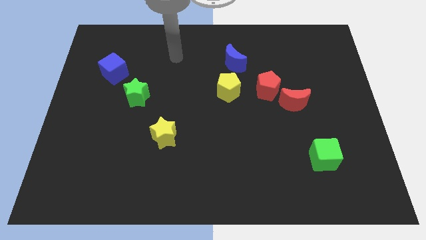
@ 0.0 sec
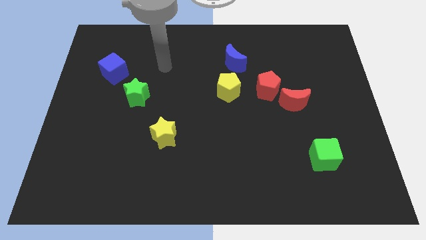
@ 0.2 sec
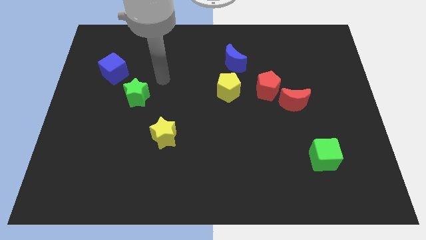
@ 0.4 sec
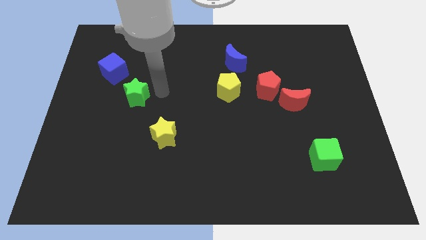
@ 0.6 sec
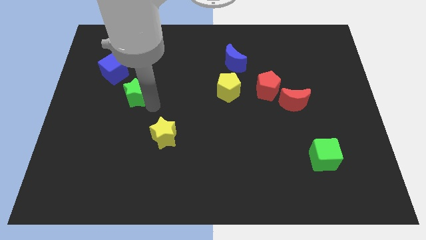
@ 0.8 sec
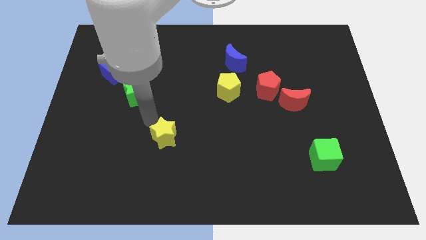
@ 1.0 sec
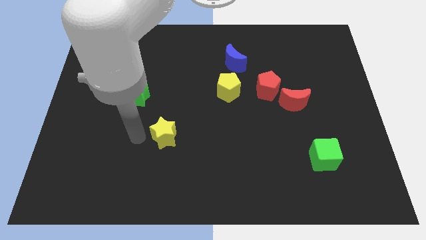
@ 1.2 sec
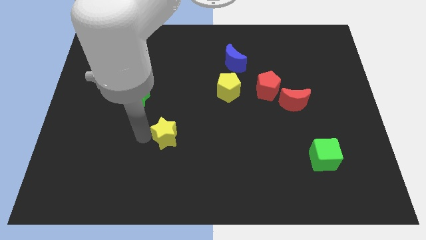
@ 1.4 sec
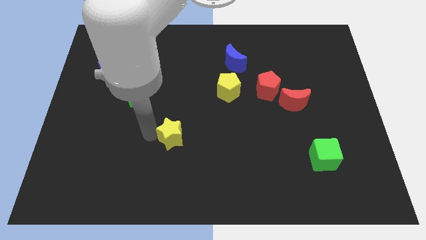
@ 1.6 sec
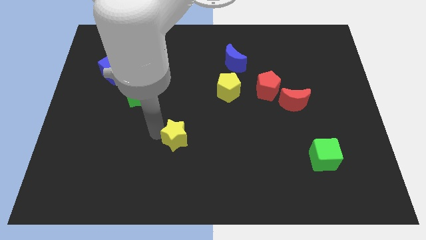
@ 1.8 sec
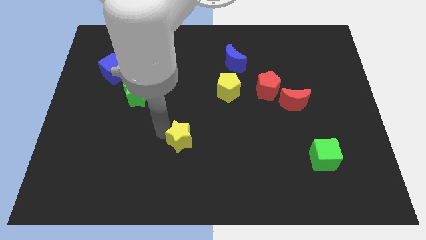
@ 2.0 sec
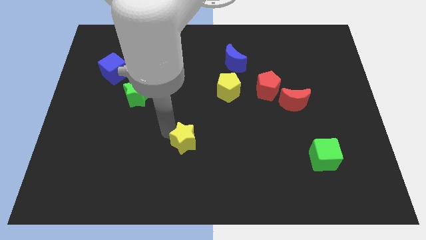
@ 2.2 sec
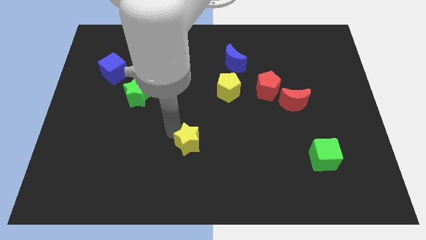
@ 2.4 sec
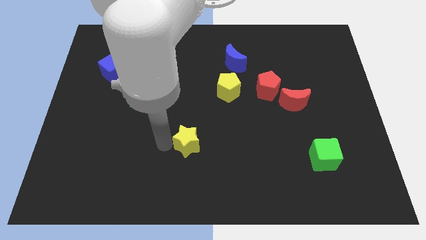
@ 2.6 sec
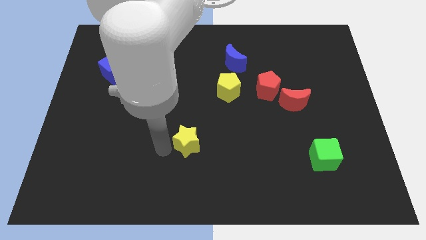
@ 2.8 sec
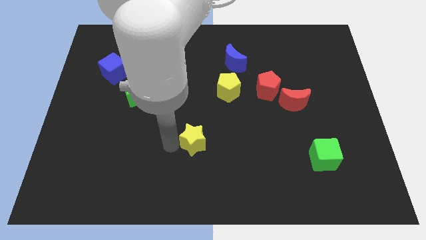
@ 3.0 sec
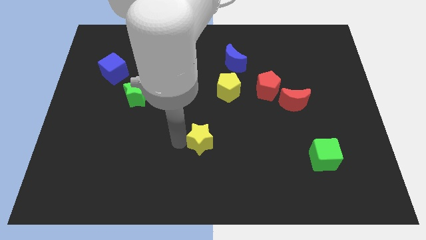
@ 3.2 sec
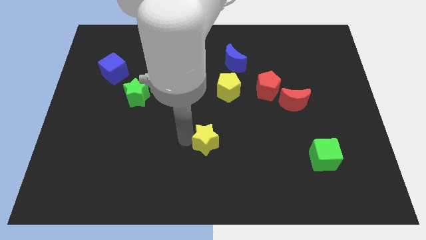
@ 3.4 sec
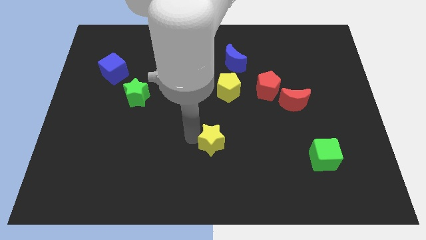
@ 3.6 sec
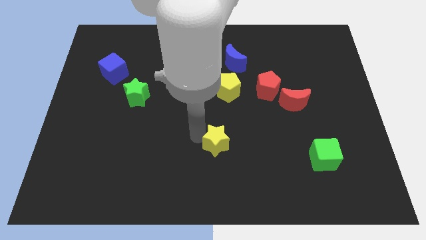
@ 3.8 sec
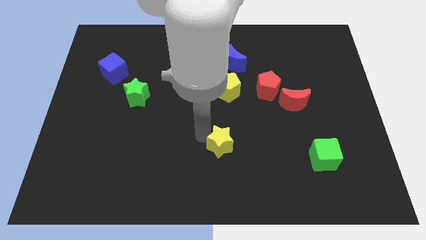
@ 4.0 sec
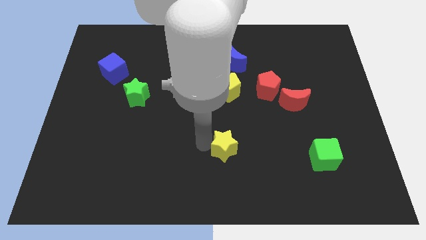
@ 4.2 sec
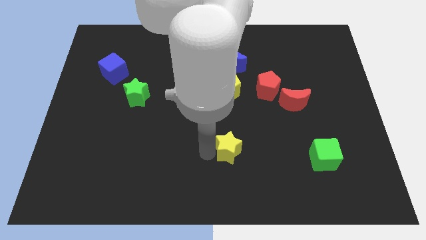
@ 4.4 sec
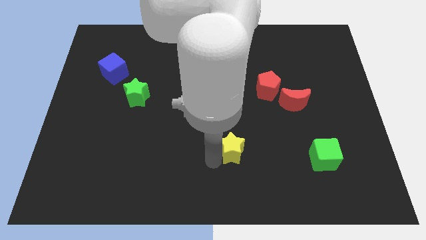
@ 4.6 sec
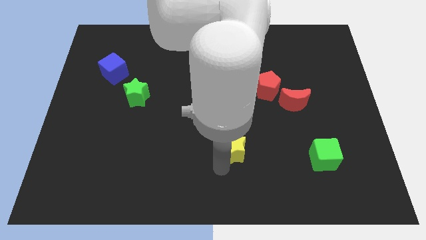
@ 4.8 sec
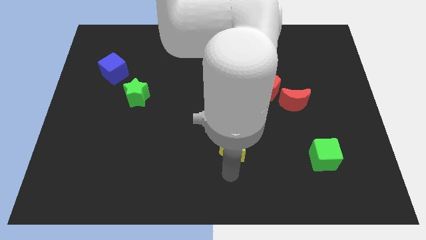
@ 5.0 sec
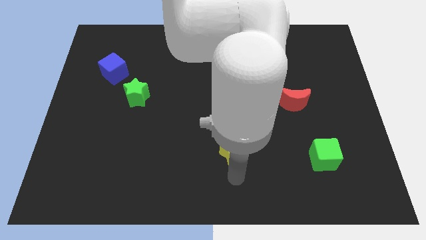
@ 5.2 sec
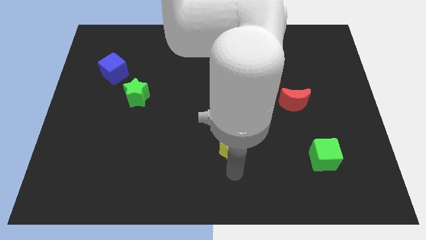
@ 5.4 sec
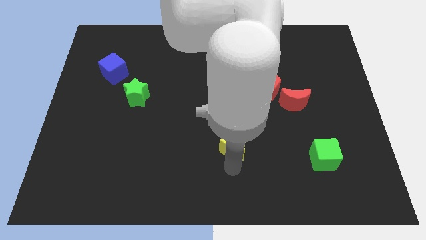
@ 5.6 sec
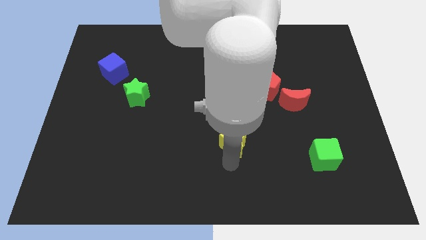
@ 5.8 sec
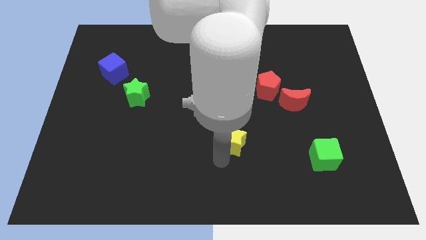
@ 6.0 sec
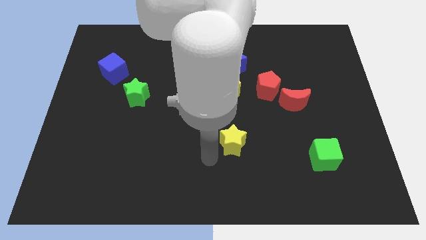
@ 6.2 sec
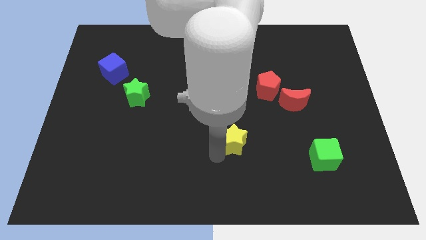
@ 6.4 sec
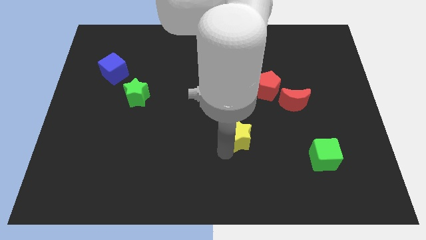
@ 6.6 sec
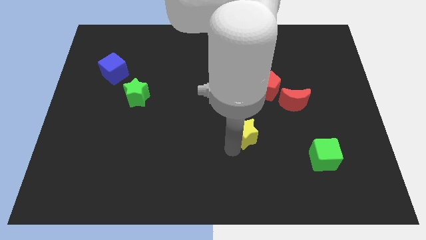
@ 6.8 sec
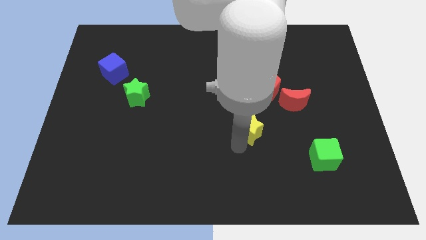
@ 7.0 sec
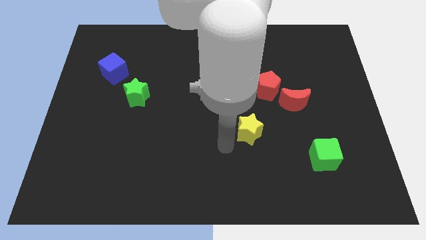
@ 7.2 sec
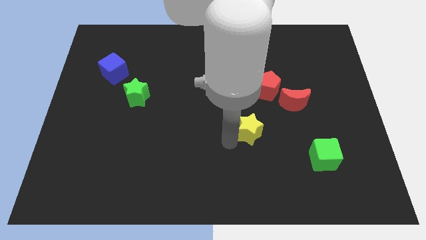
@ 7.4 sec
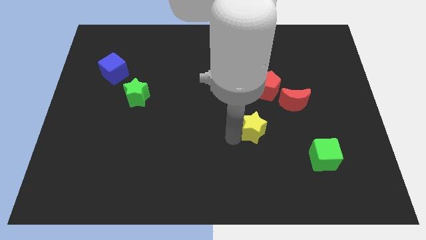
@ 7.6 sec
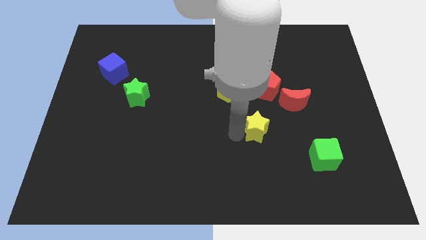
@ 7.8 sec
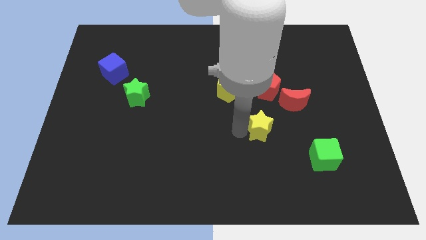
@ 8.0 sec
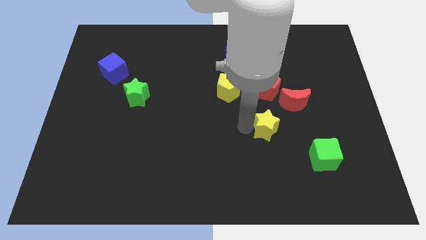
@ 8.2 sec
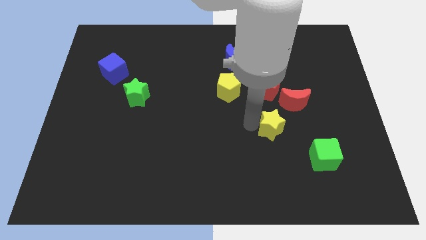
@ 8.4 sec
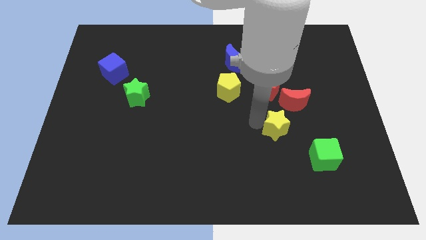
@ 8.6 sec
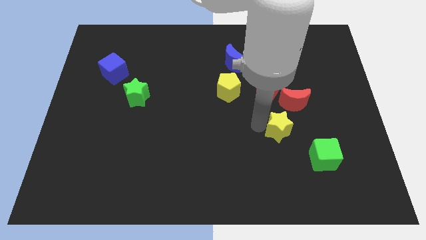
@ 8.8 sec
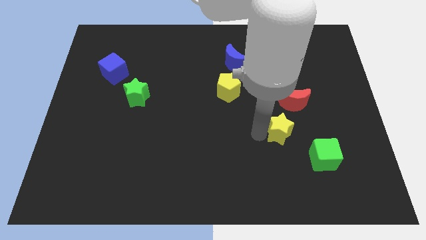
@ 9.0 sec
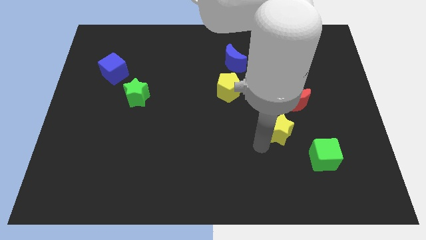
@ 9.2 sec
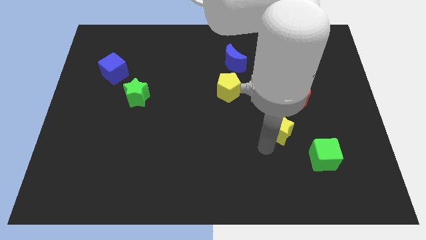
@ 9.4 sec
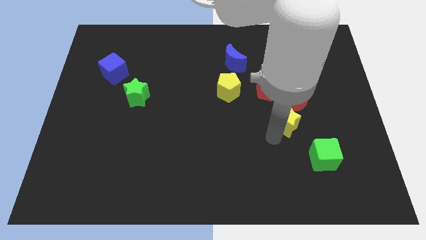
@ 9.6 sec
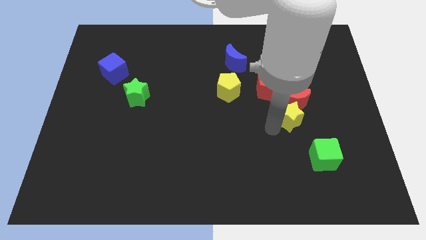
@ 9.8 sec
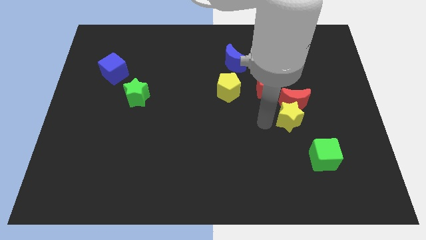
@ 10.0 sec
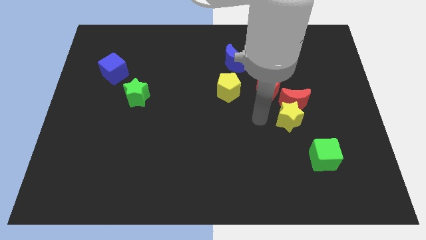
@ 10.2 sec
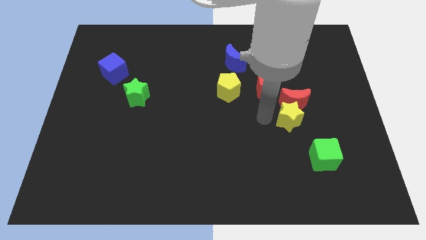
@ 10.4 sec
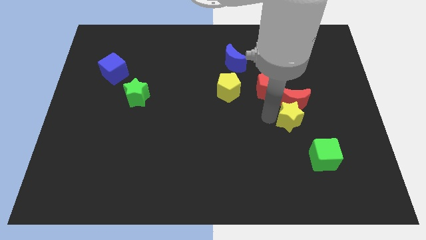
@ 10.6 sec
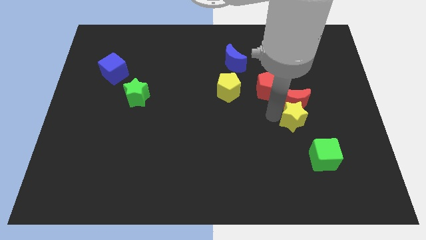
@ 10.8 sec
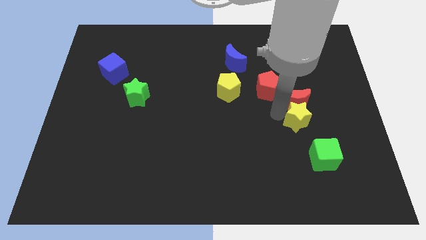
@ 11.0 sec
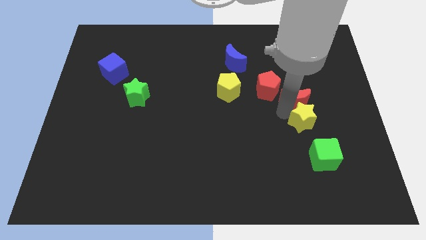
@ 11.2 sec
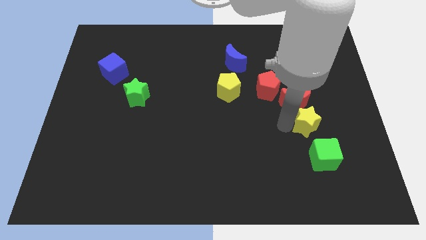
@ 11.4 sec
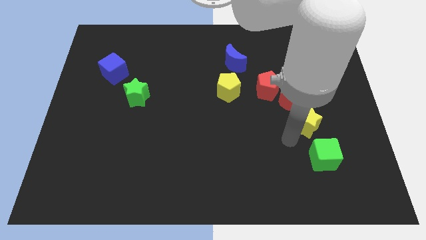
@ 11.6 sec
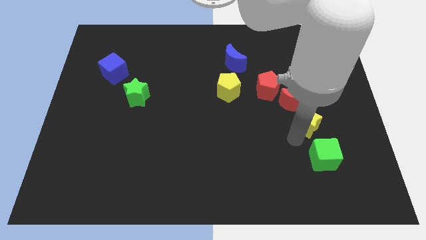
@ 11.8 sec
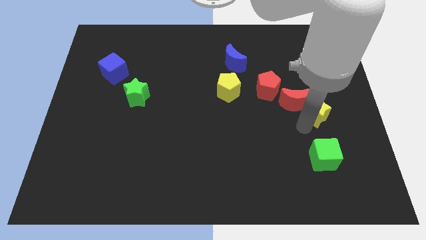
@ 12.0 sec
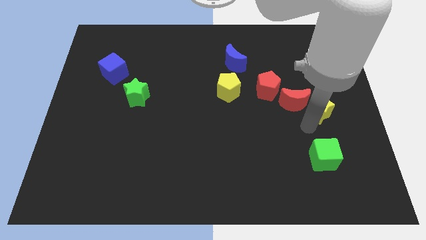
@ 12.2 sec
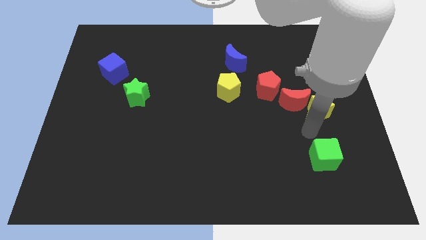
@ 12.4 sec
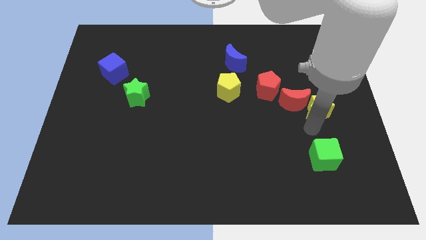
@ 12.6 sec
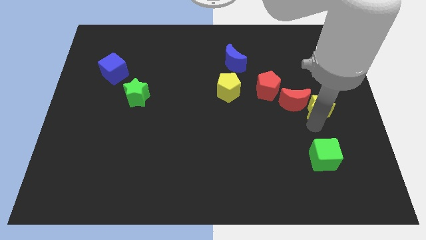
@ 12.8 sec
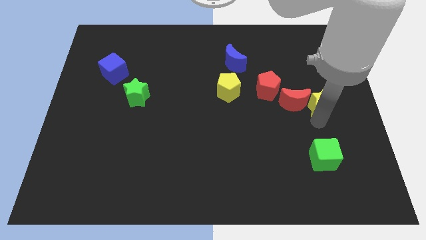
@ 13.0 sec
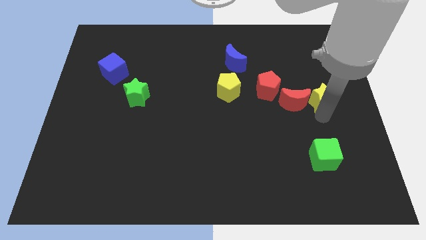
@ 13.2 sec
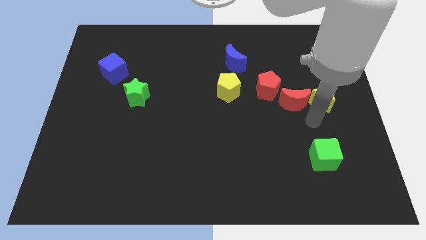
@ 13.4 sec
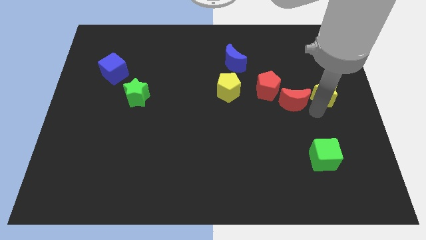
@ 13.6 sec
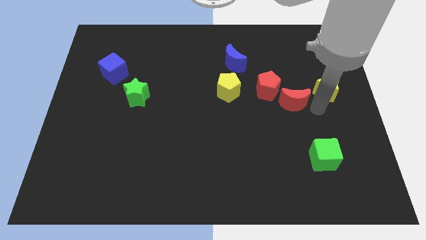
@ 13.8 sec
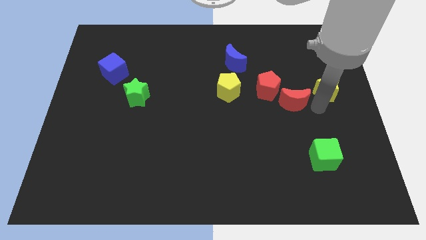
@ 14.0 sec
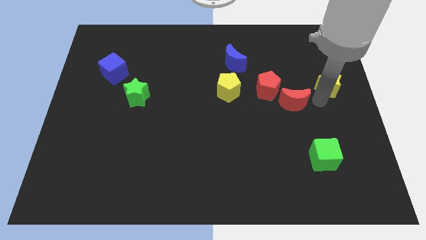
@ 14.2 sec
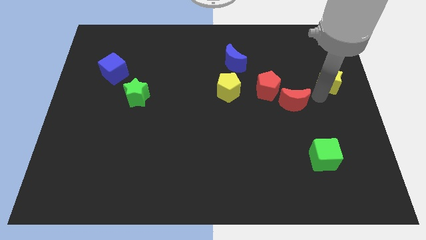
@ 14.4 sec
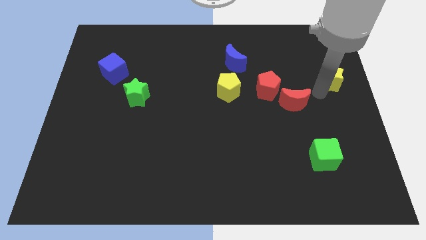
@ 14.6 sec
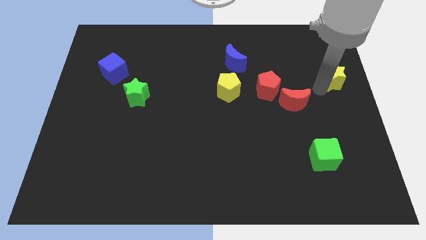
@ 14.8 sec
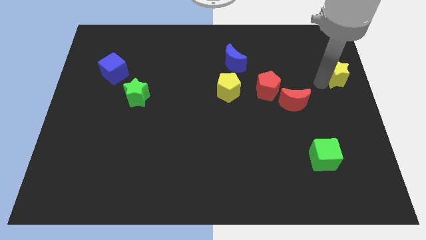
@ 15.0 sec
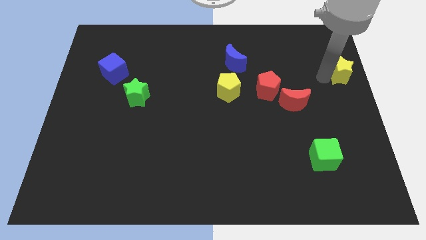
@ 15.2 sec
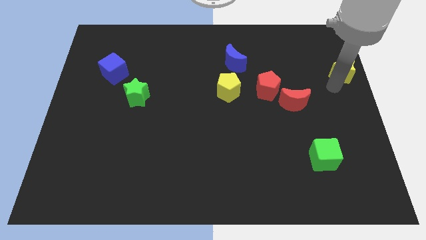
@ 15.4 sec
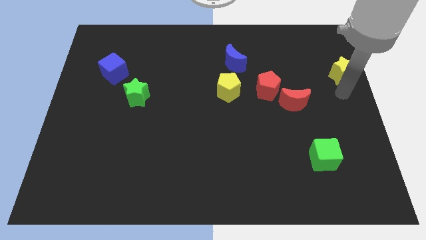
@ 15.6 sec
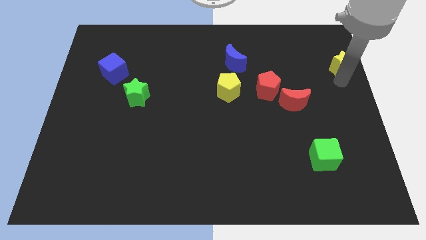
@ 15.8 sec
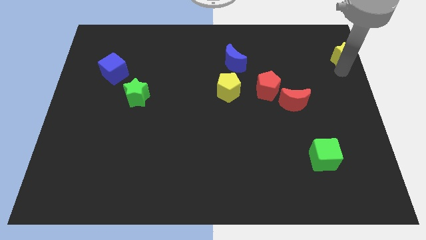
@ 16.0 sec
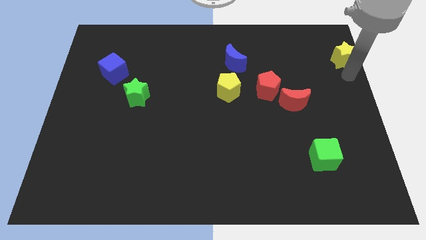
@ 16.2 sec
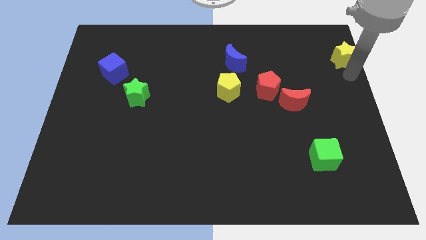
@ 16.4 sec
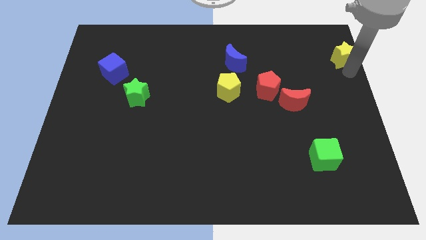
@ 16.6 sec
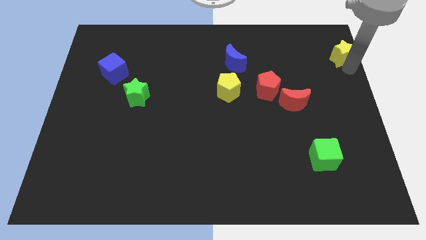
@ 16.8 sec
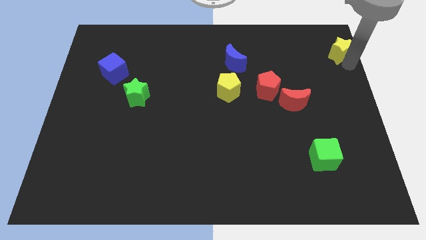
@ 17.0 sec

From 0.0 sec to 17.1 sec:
slide the yellow star to the top right
